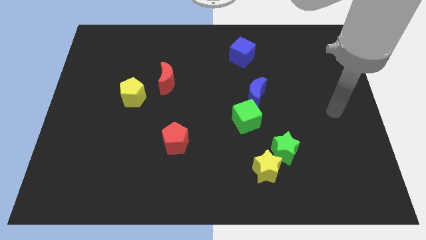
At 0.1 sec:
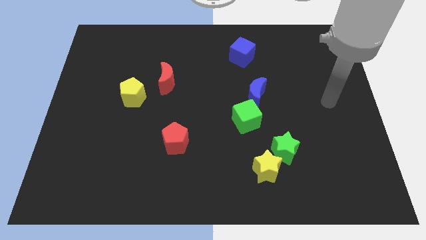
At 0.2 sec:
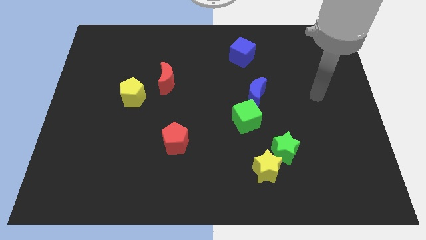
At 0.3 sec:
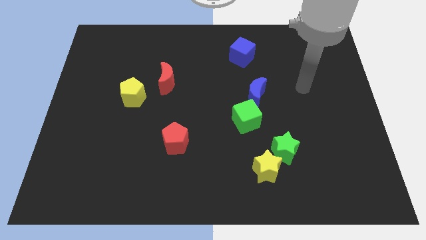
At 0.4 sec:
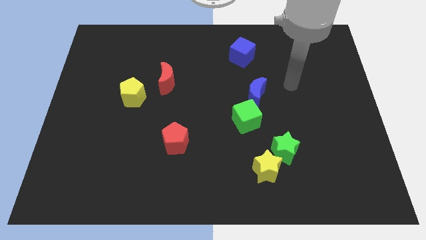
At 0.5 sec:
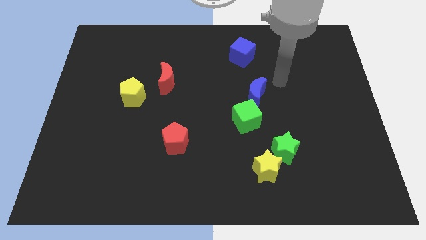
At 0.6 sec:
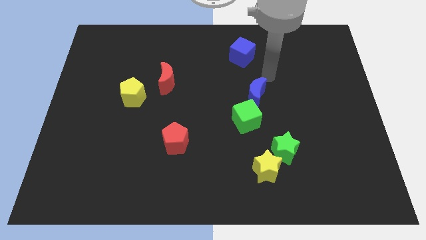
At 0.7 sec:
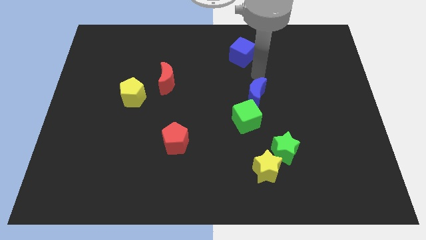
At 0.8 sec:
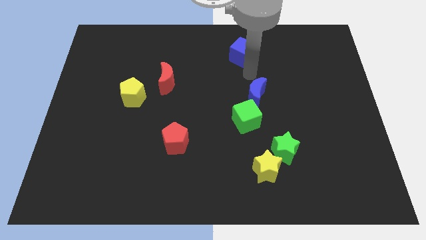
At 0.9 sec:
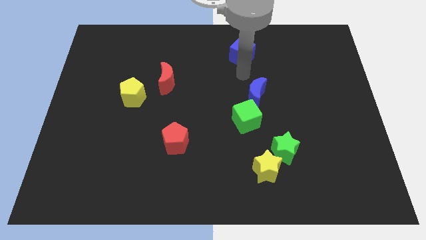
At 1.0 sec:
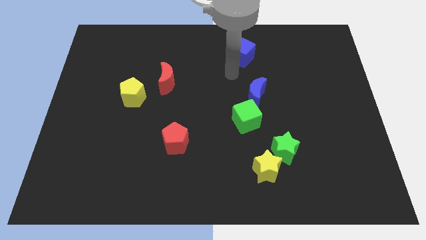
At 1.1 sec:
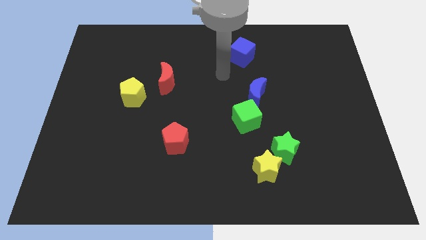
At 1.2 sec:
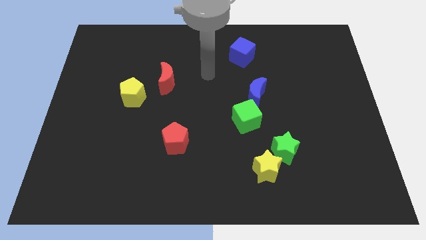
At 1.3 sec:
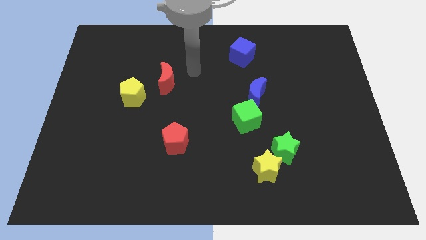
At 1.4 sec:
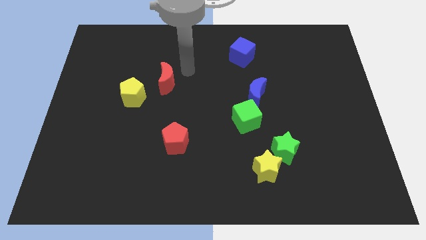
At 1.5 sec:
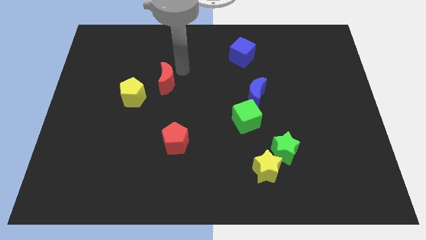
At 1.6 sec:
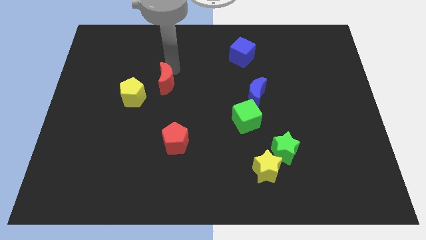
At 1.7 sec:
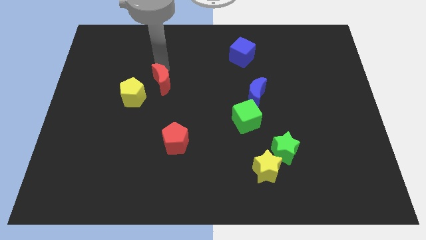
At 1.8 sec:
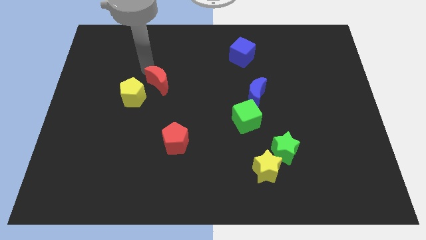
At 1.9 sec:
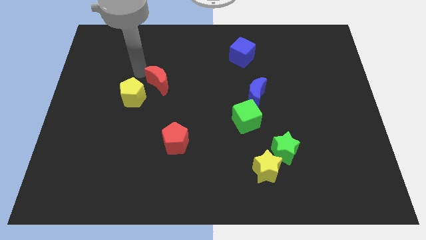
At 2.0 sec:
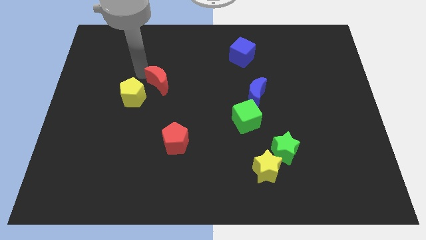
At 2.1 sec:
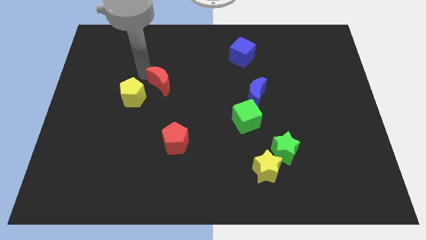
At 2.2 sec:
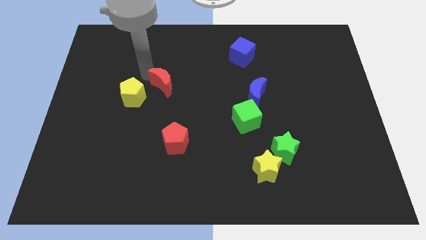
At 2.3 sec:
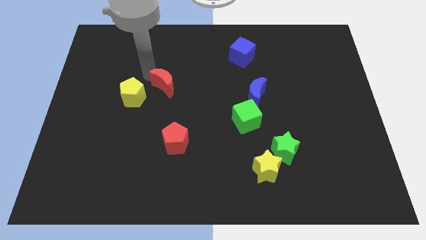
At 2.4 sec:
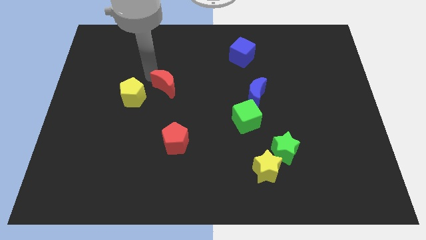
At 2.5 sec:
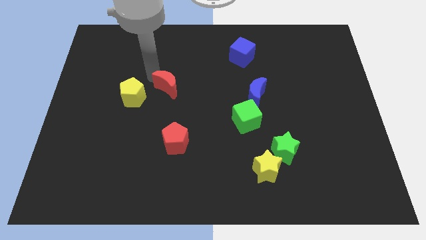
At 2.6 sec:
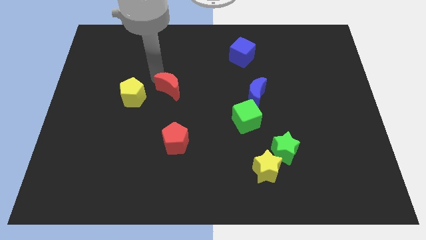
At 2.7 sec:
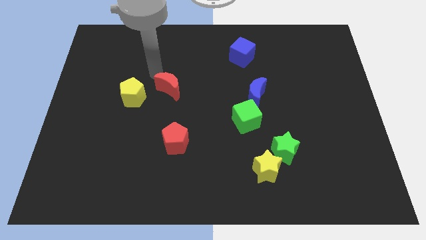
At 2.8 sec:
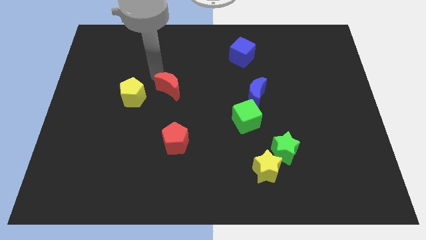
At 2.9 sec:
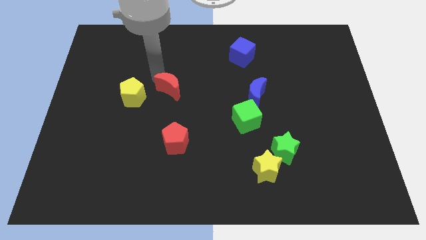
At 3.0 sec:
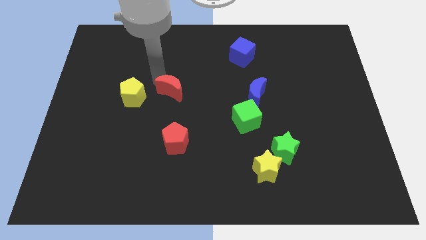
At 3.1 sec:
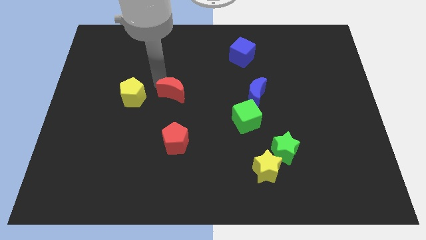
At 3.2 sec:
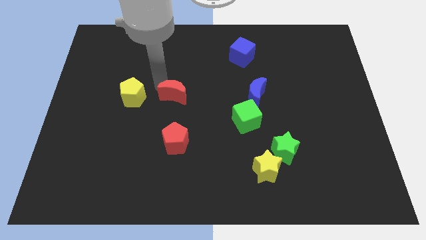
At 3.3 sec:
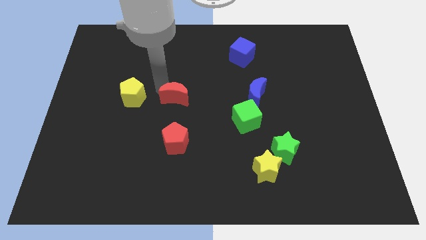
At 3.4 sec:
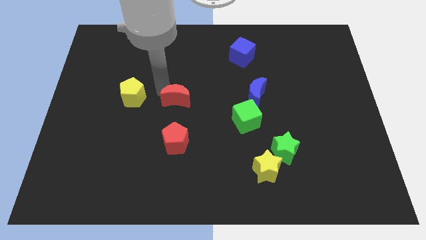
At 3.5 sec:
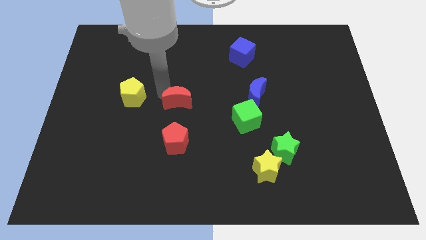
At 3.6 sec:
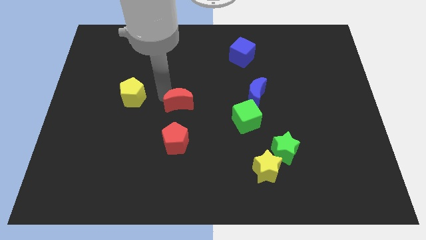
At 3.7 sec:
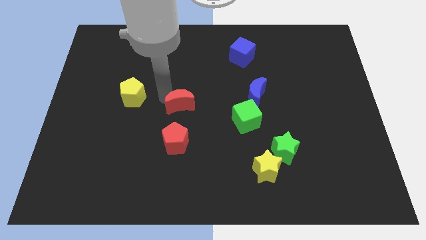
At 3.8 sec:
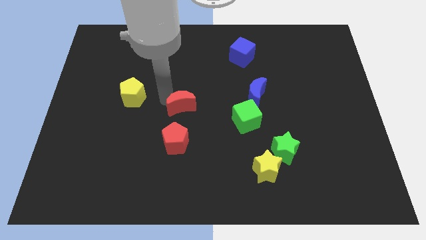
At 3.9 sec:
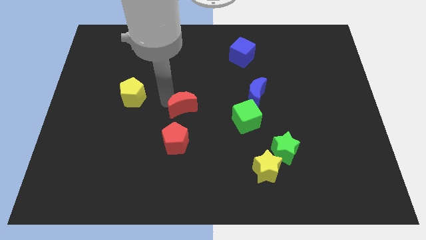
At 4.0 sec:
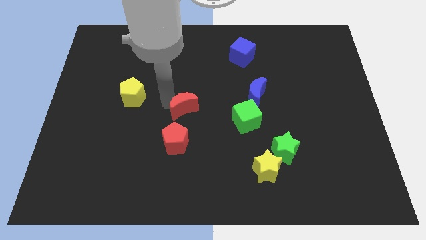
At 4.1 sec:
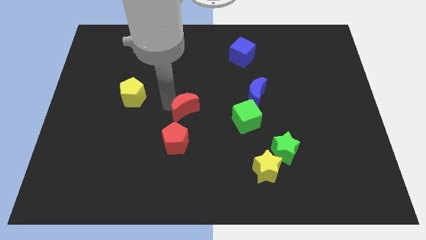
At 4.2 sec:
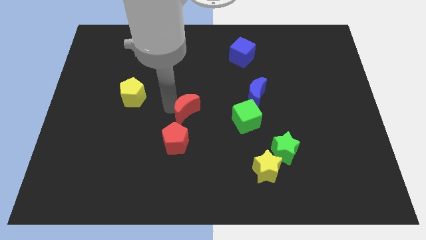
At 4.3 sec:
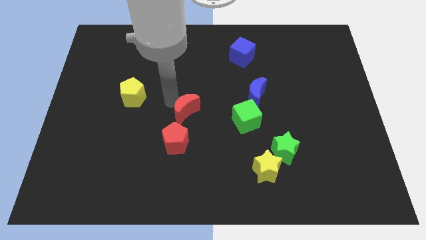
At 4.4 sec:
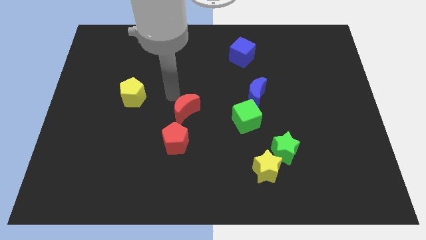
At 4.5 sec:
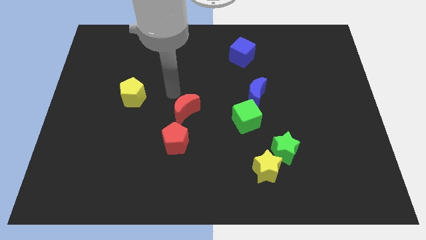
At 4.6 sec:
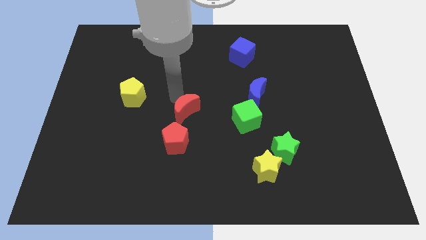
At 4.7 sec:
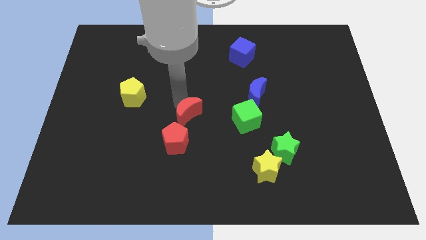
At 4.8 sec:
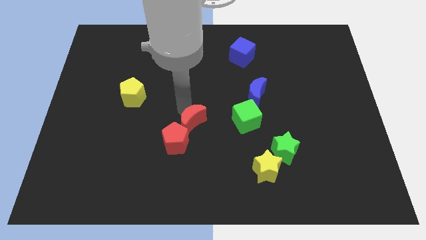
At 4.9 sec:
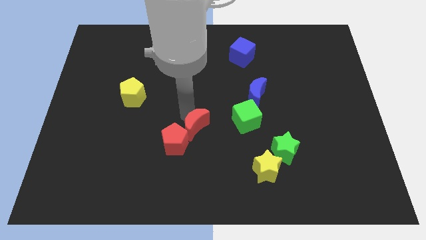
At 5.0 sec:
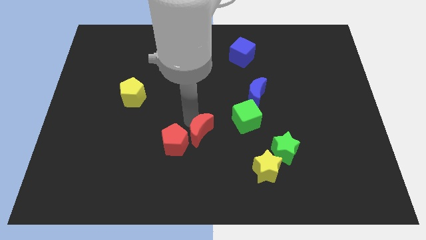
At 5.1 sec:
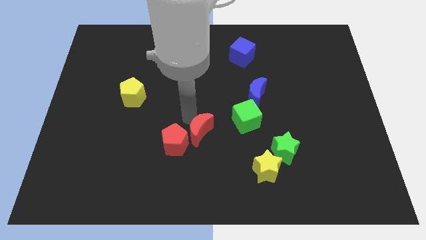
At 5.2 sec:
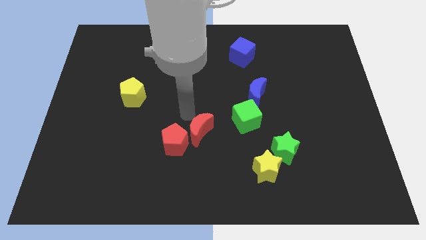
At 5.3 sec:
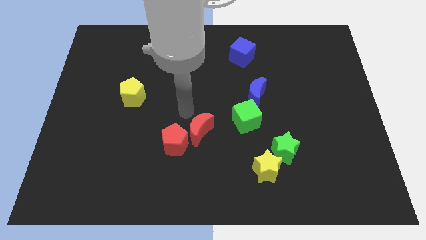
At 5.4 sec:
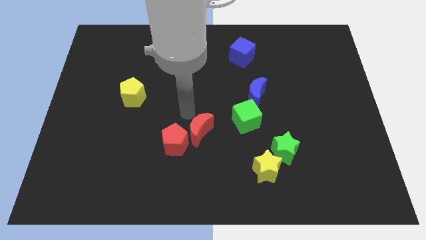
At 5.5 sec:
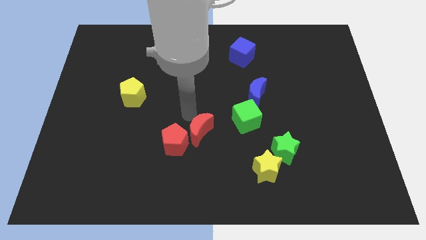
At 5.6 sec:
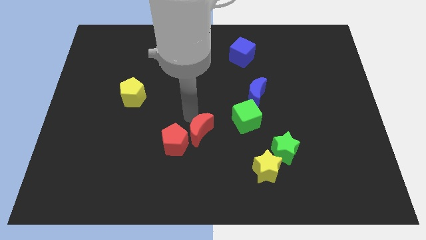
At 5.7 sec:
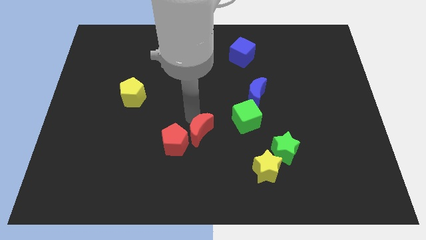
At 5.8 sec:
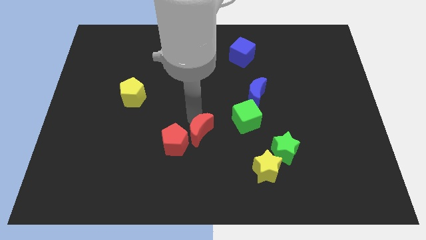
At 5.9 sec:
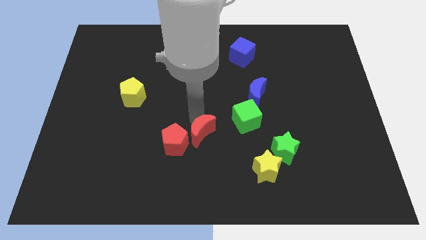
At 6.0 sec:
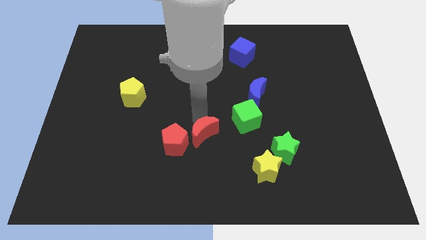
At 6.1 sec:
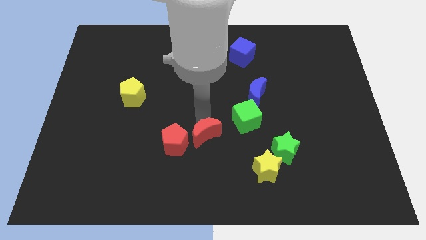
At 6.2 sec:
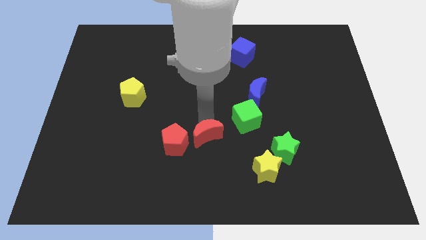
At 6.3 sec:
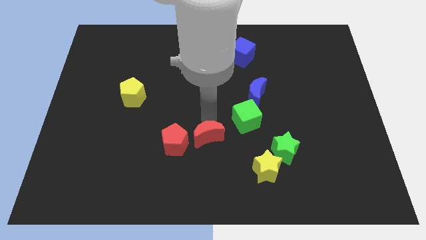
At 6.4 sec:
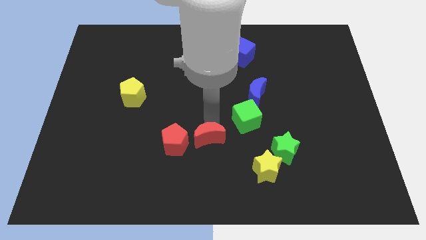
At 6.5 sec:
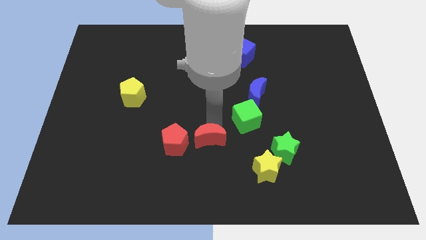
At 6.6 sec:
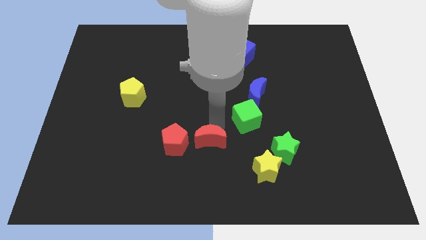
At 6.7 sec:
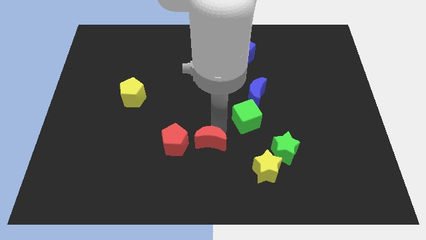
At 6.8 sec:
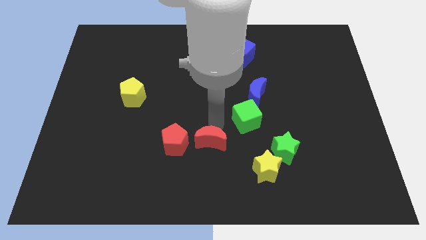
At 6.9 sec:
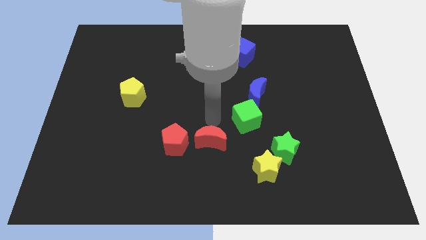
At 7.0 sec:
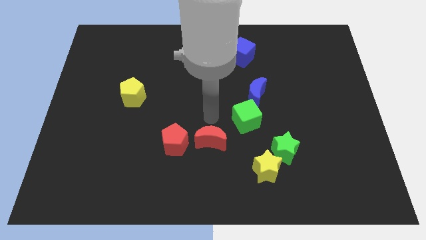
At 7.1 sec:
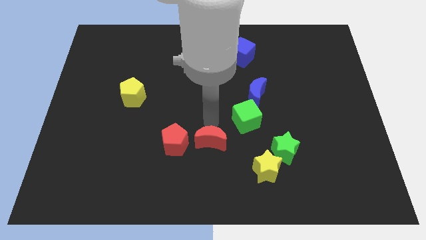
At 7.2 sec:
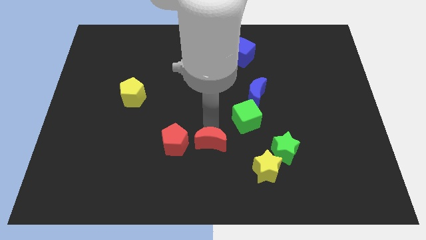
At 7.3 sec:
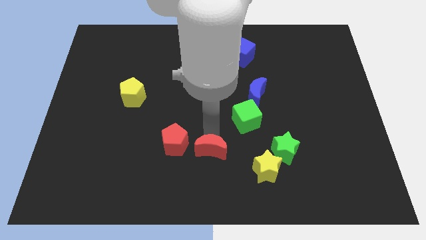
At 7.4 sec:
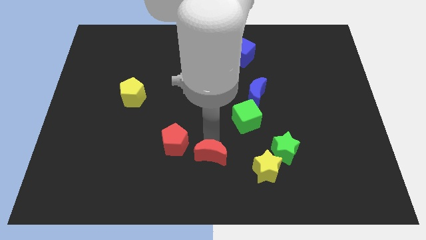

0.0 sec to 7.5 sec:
push the red moon to the bottom

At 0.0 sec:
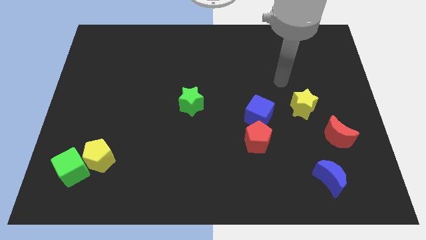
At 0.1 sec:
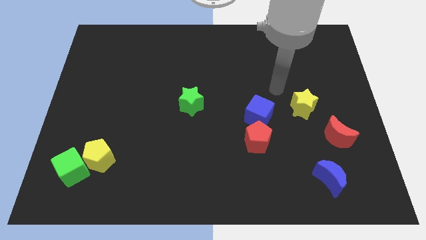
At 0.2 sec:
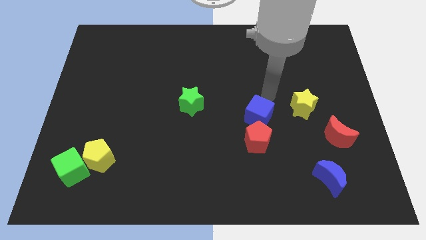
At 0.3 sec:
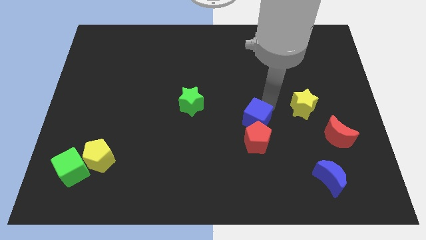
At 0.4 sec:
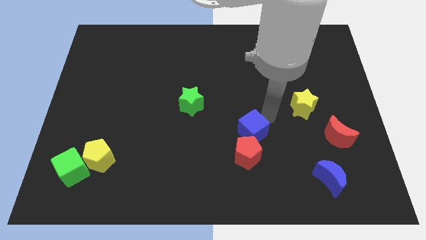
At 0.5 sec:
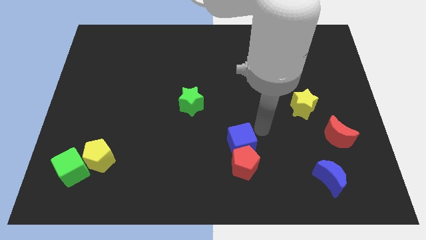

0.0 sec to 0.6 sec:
slide the red pentagon to the bottom
